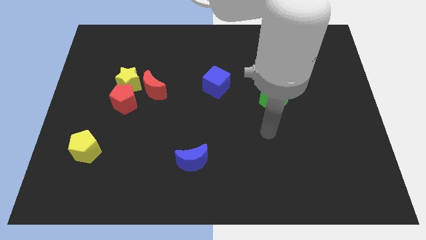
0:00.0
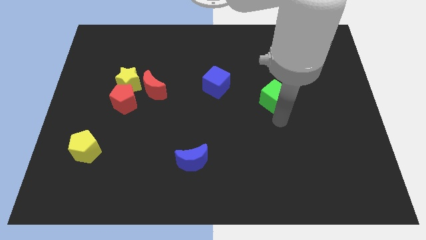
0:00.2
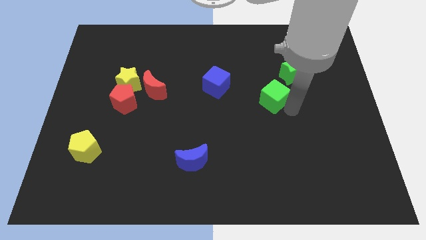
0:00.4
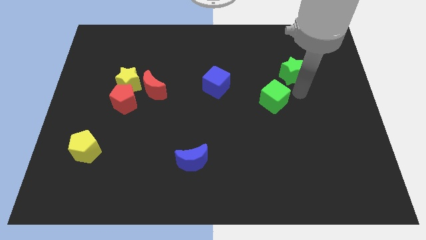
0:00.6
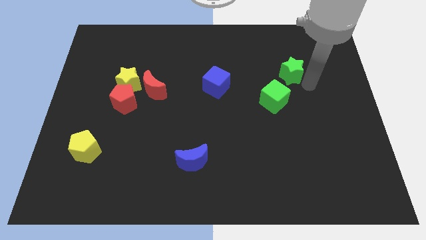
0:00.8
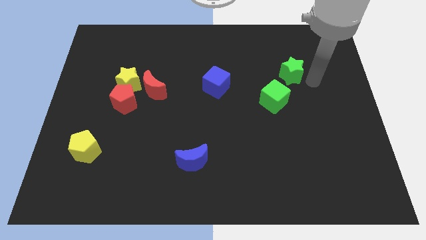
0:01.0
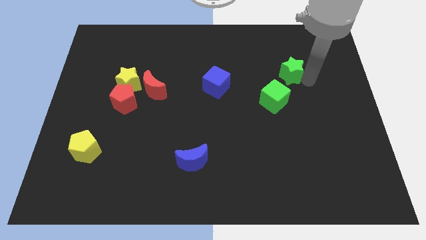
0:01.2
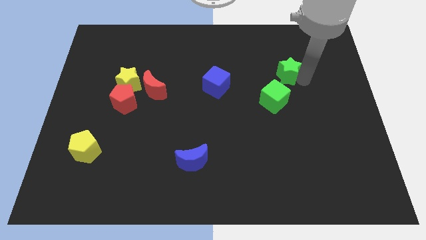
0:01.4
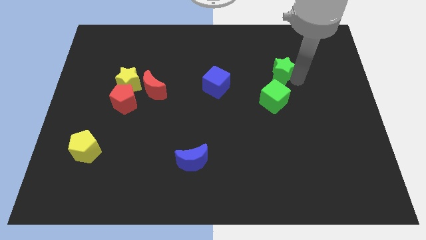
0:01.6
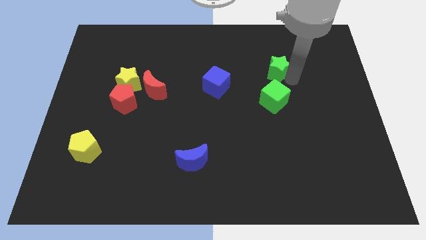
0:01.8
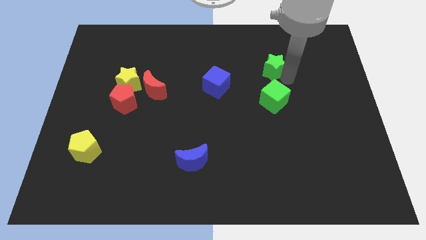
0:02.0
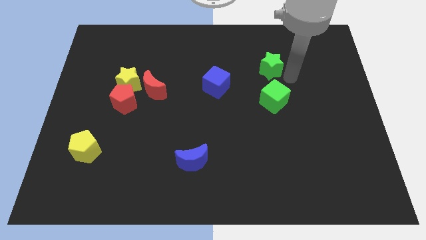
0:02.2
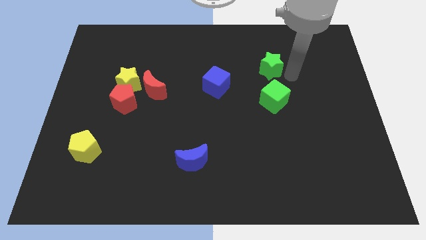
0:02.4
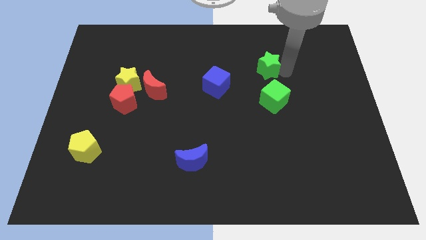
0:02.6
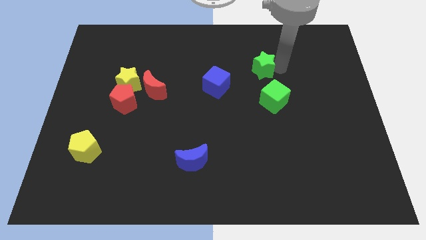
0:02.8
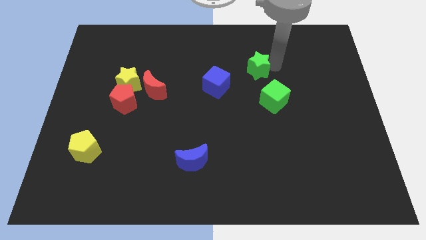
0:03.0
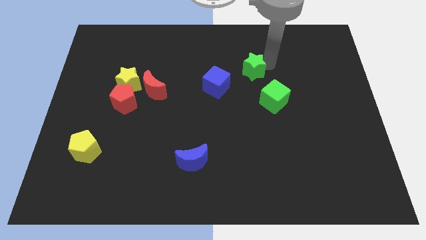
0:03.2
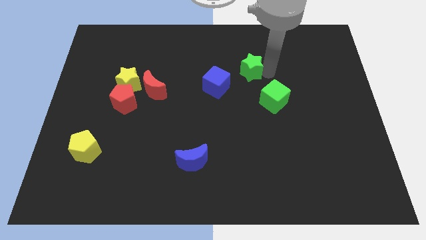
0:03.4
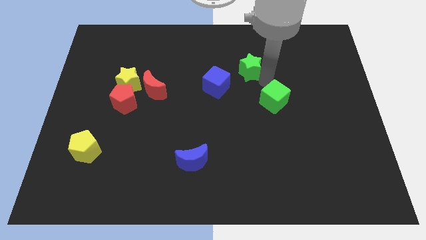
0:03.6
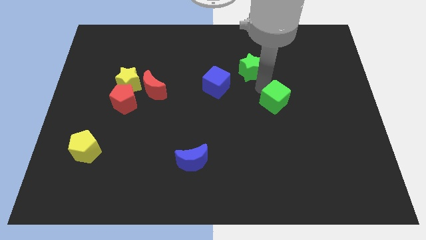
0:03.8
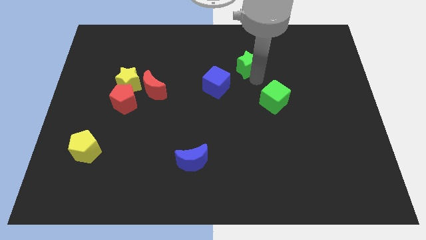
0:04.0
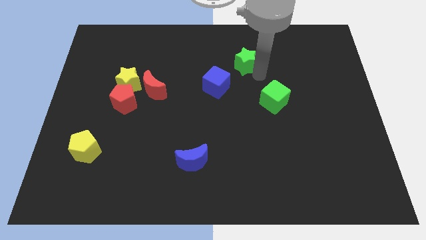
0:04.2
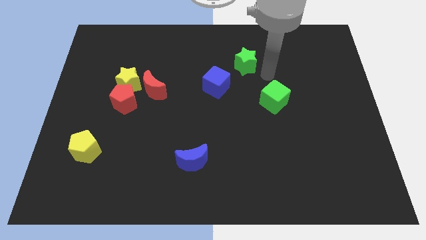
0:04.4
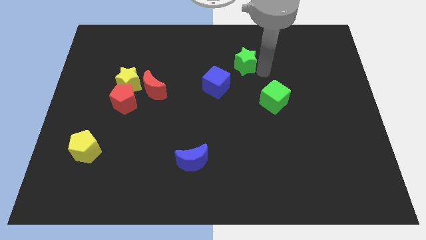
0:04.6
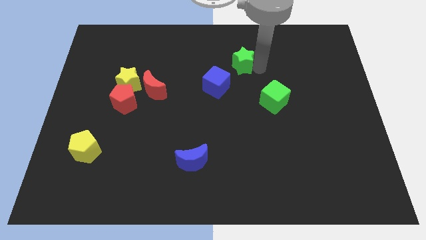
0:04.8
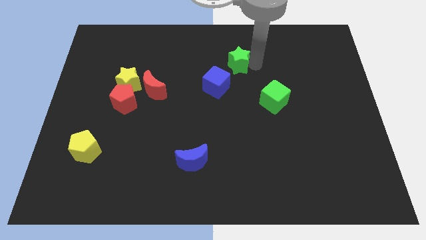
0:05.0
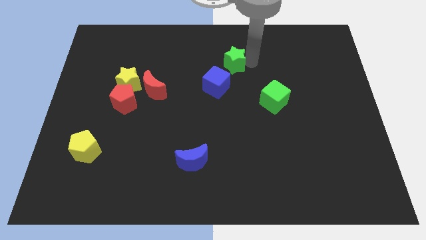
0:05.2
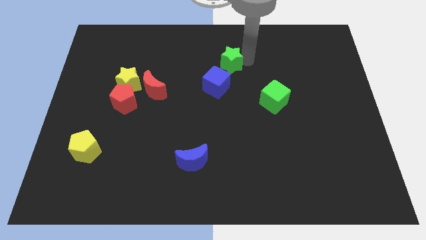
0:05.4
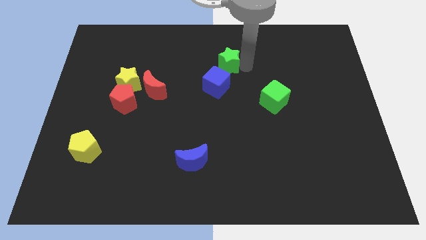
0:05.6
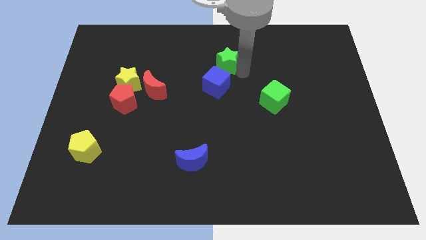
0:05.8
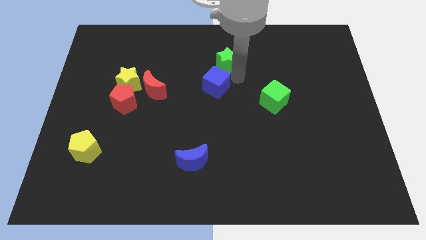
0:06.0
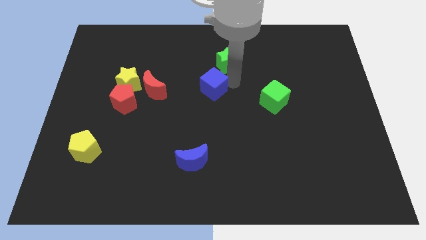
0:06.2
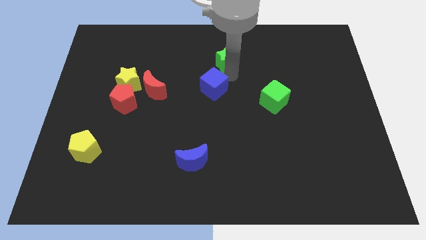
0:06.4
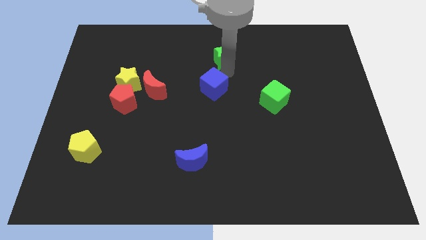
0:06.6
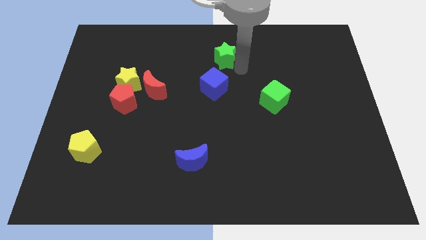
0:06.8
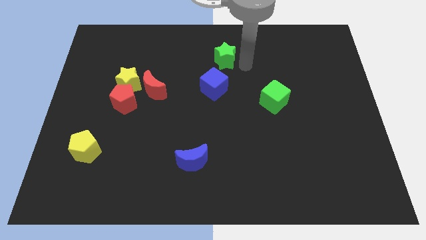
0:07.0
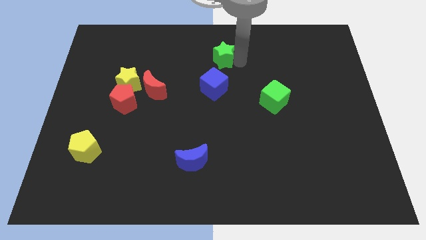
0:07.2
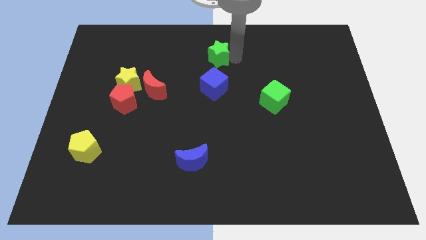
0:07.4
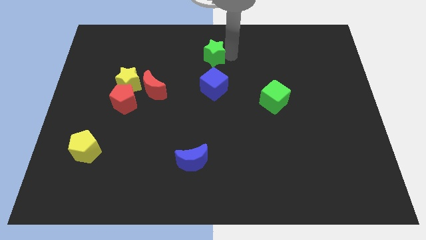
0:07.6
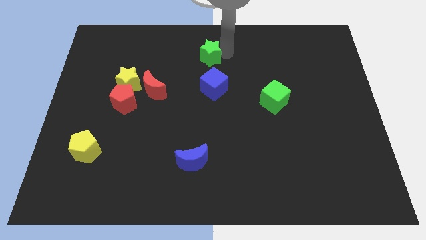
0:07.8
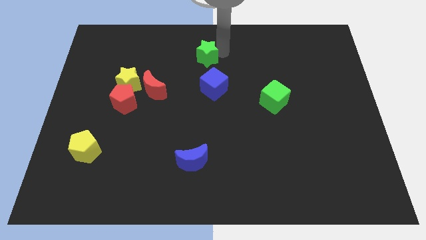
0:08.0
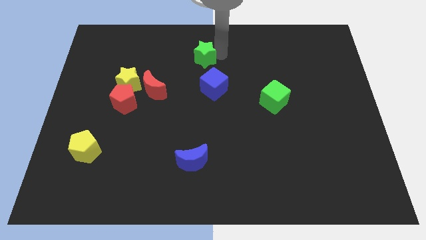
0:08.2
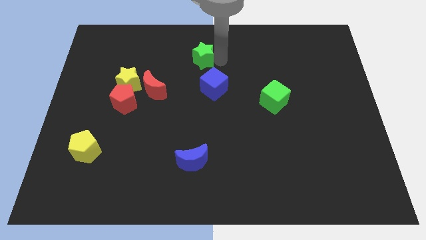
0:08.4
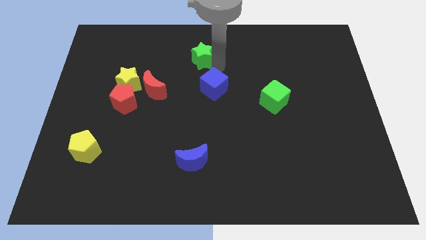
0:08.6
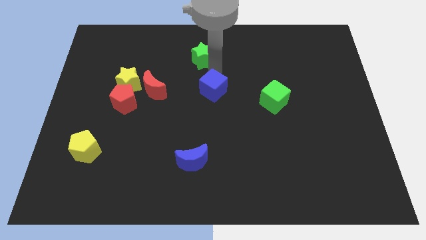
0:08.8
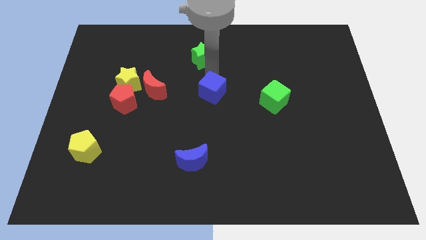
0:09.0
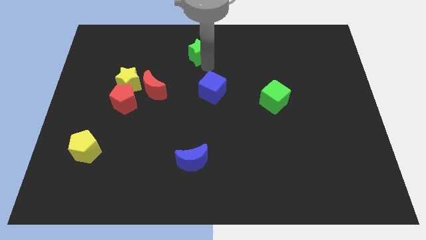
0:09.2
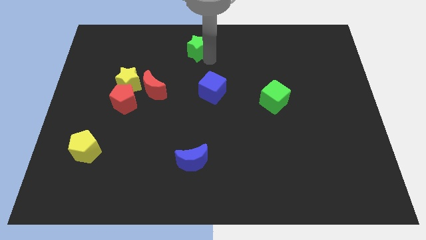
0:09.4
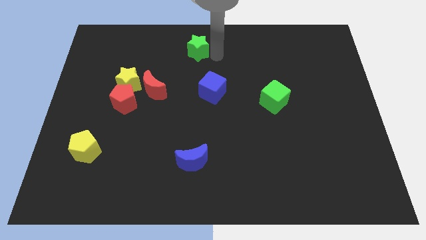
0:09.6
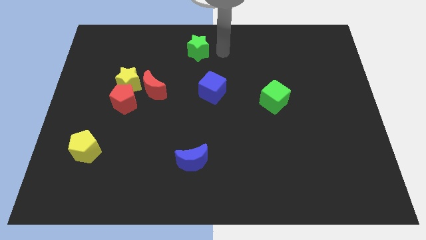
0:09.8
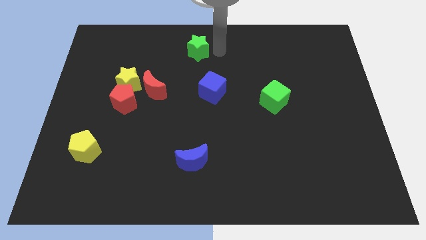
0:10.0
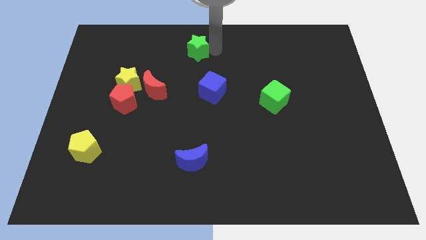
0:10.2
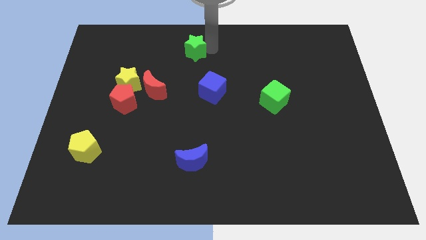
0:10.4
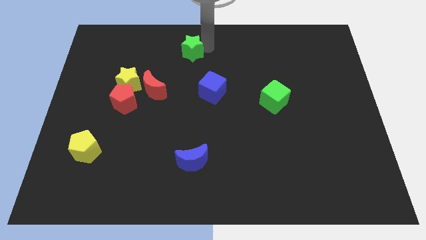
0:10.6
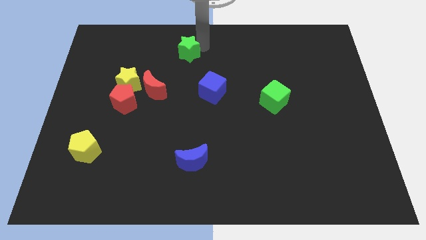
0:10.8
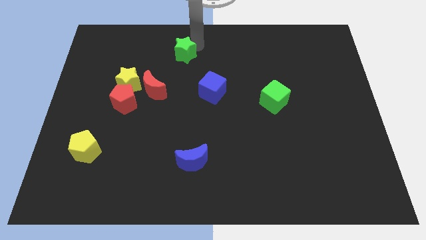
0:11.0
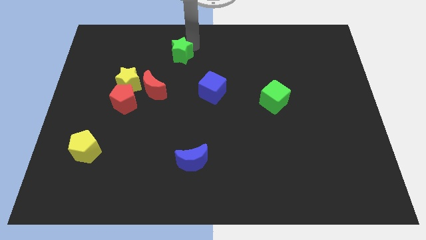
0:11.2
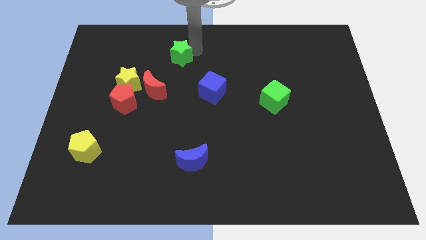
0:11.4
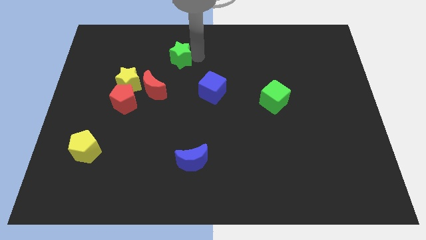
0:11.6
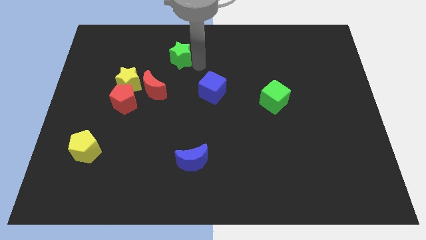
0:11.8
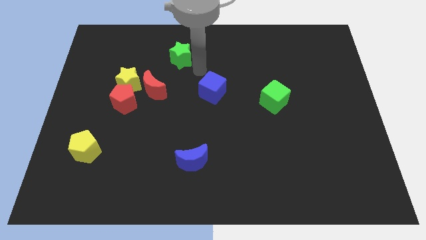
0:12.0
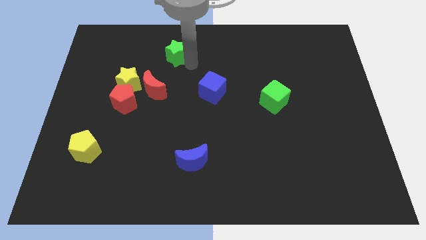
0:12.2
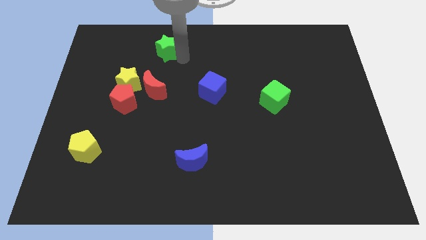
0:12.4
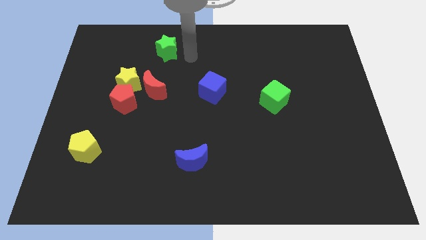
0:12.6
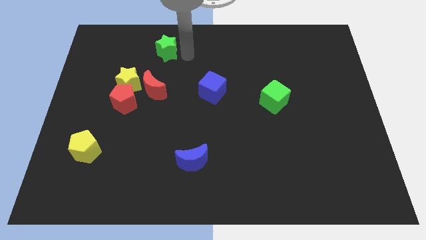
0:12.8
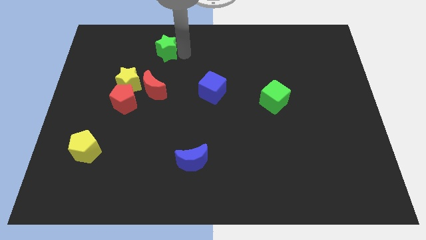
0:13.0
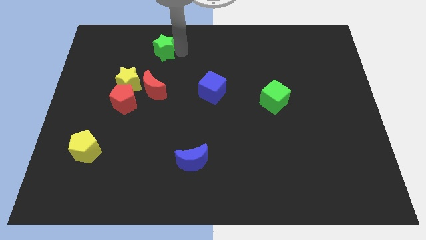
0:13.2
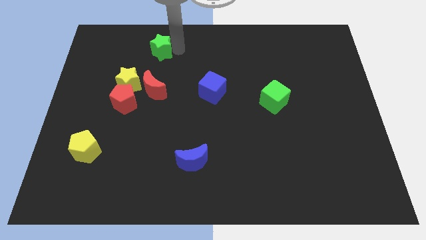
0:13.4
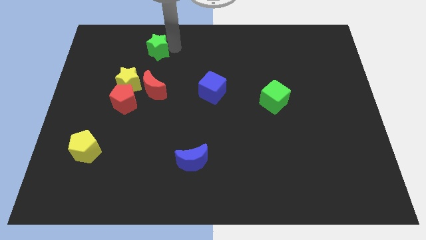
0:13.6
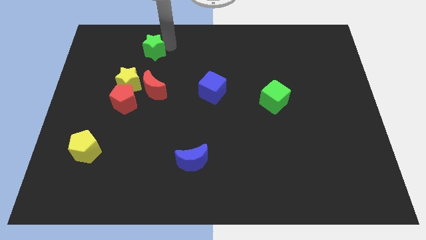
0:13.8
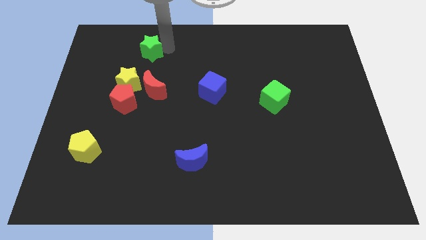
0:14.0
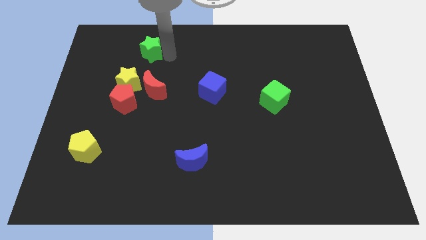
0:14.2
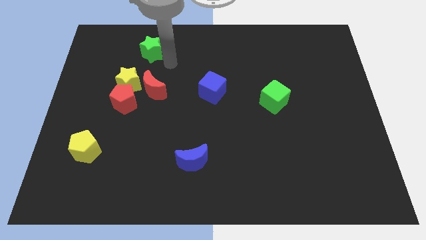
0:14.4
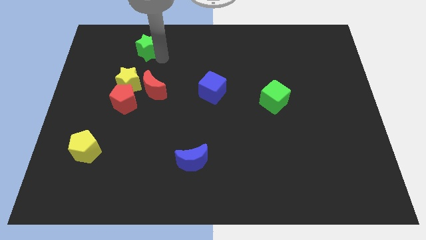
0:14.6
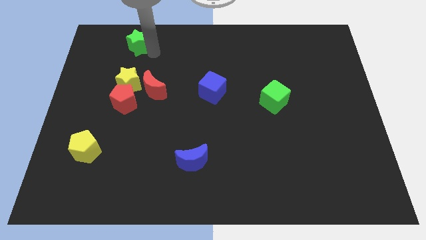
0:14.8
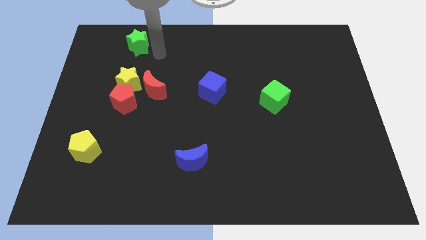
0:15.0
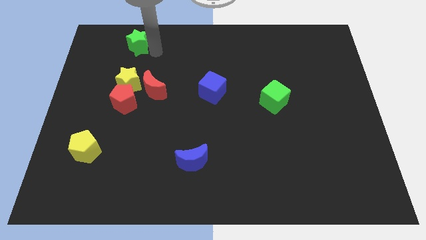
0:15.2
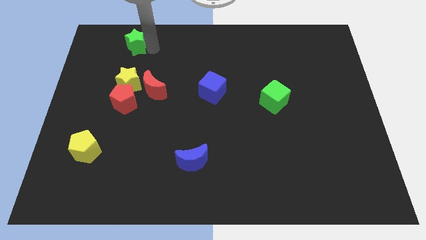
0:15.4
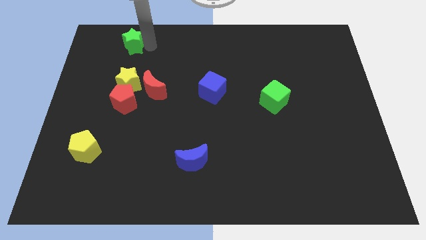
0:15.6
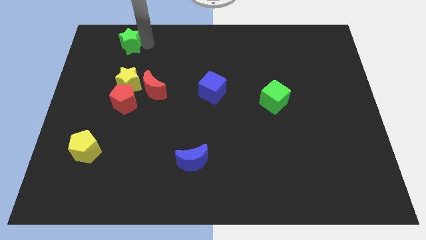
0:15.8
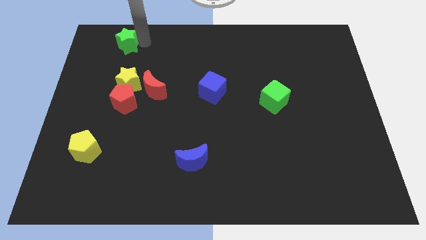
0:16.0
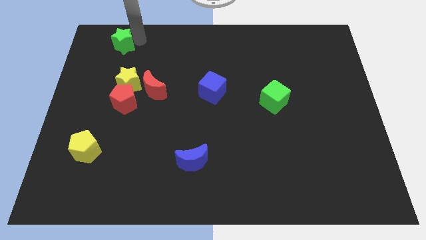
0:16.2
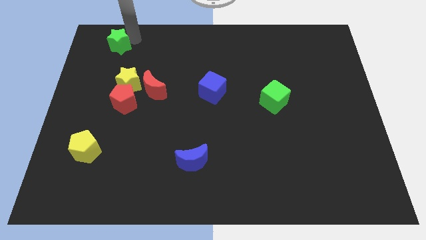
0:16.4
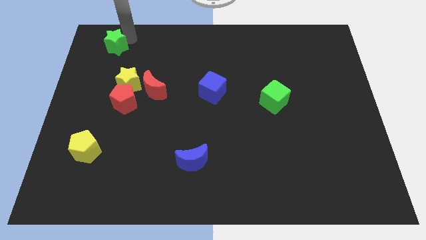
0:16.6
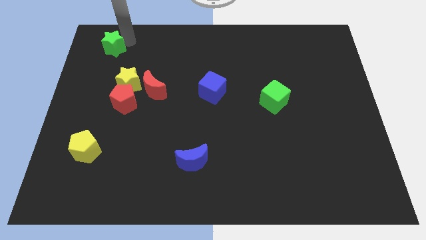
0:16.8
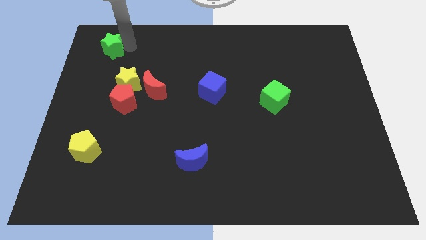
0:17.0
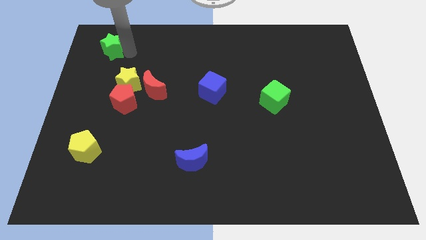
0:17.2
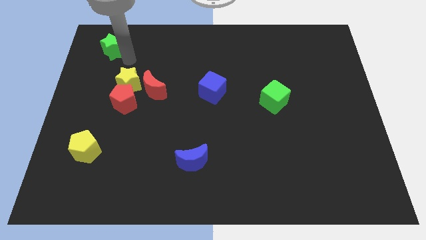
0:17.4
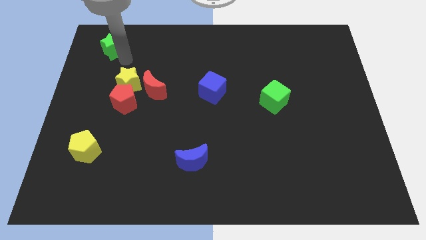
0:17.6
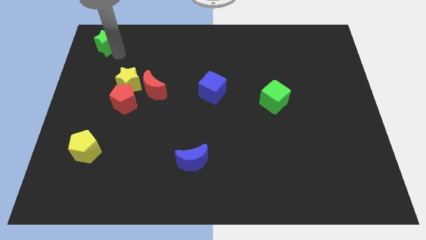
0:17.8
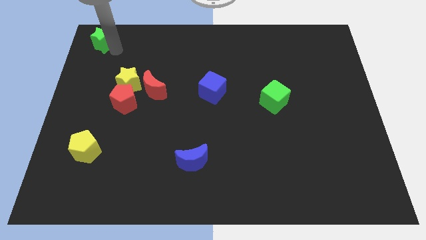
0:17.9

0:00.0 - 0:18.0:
slide the green star to the top left of the board
